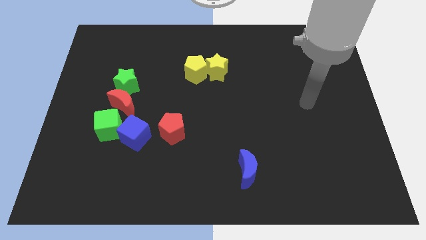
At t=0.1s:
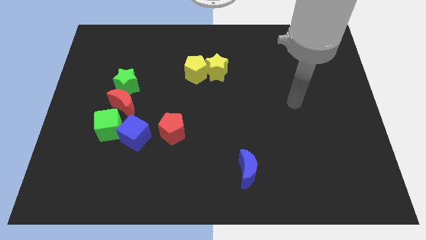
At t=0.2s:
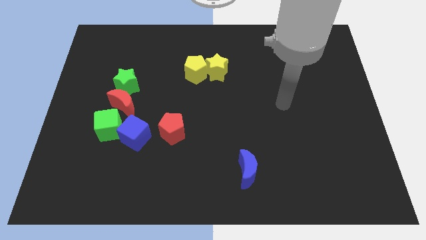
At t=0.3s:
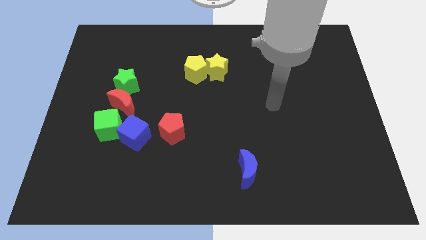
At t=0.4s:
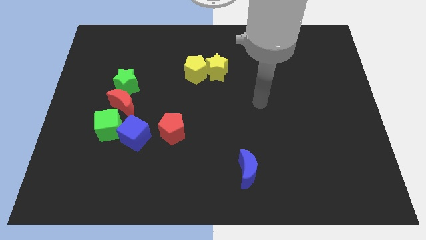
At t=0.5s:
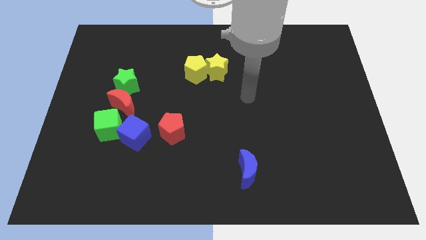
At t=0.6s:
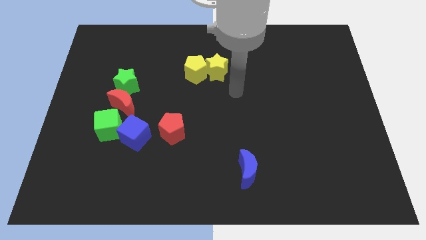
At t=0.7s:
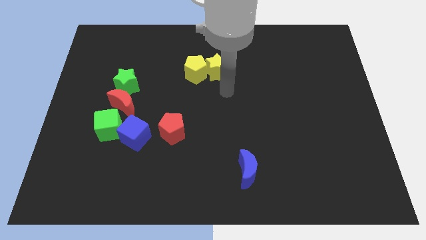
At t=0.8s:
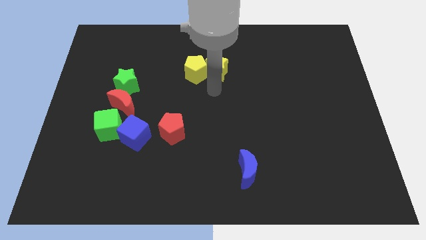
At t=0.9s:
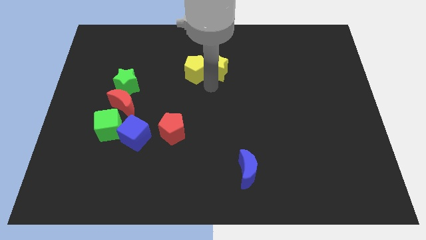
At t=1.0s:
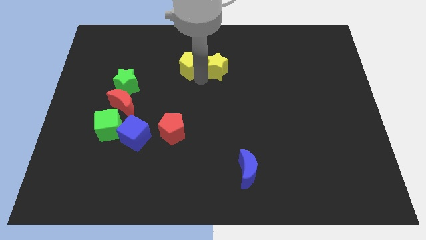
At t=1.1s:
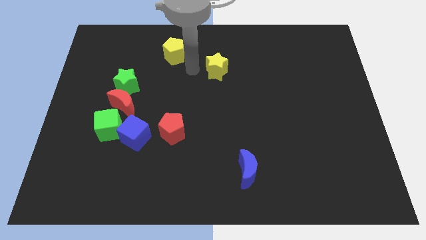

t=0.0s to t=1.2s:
move the yellow star away from the yellow pentagon

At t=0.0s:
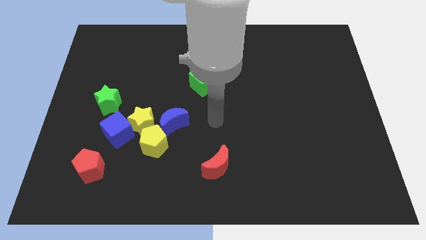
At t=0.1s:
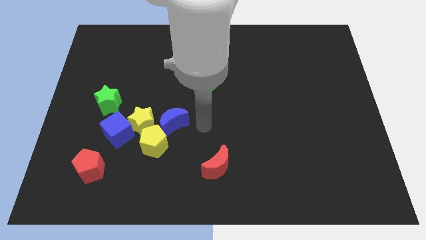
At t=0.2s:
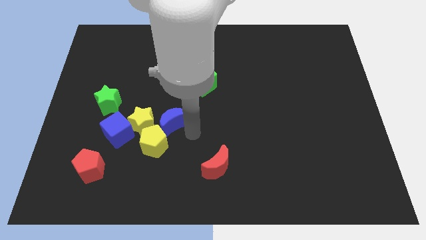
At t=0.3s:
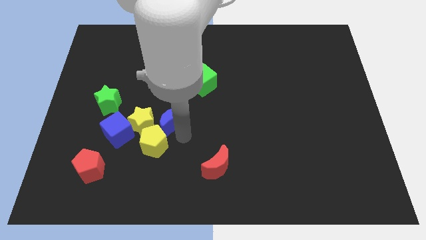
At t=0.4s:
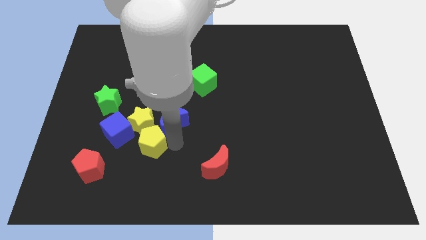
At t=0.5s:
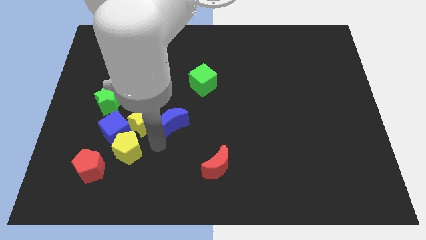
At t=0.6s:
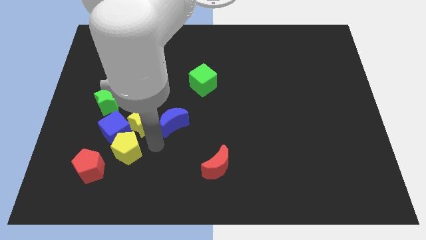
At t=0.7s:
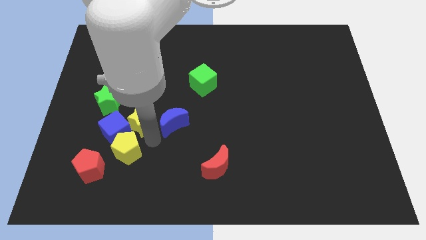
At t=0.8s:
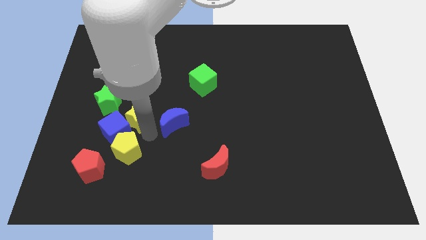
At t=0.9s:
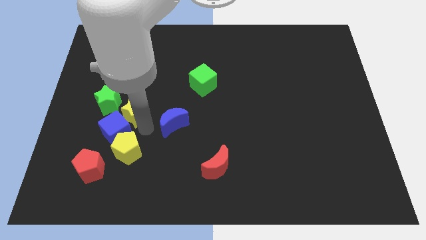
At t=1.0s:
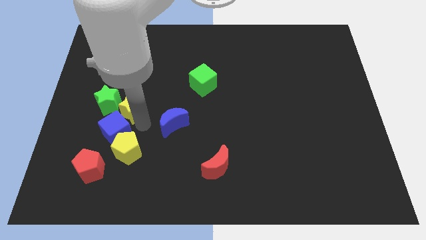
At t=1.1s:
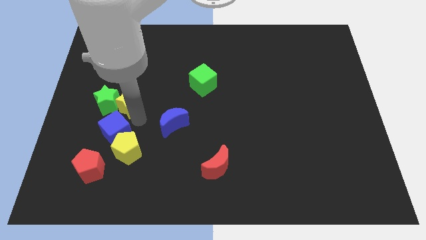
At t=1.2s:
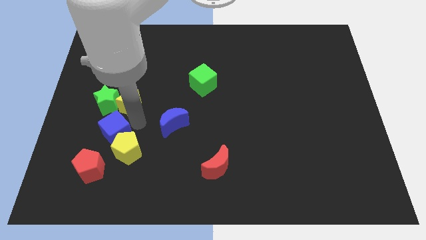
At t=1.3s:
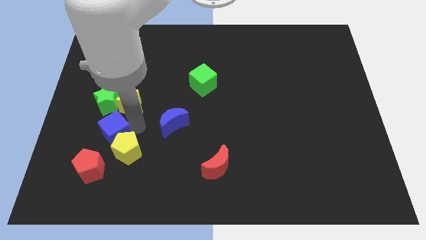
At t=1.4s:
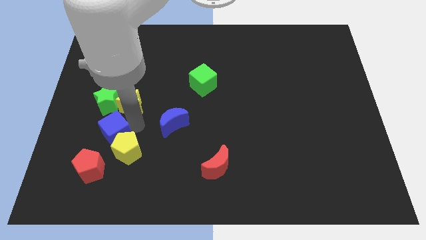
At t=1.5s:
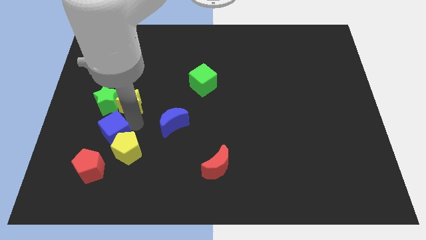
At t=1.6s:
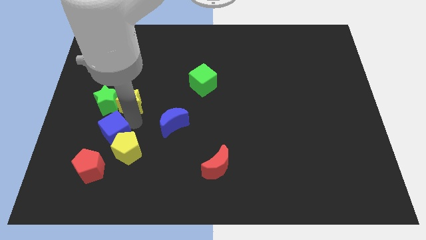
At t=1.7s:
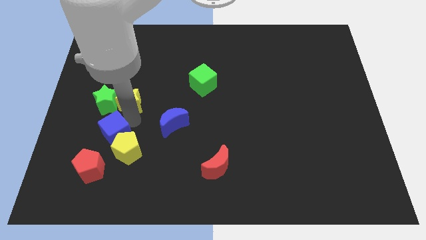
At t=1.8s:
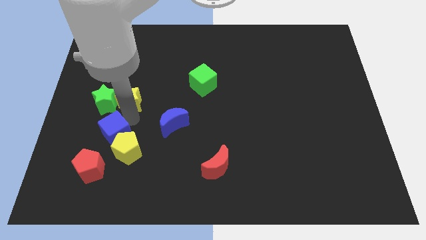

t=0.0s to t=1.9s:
pull the yellow star apart from the blue cube, yellow pentagon, and blue moon

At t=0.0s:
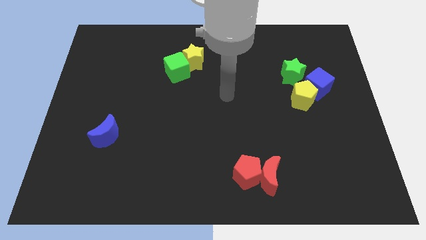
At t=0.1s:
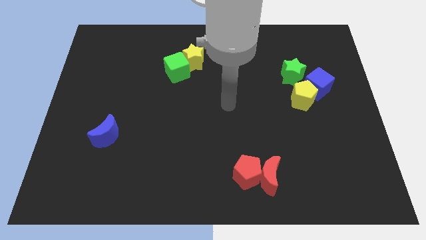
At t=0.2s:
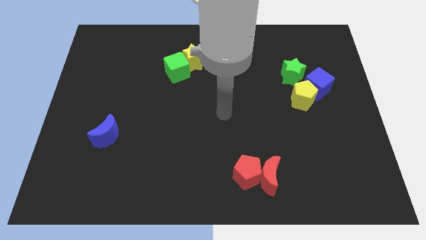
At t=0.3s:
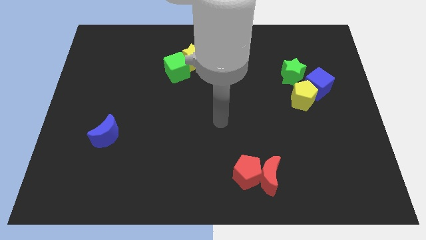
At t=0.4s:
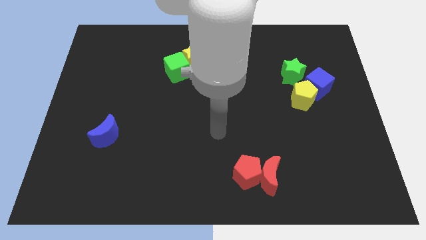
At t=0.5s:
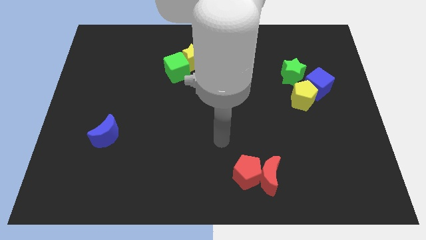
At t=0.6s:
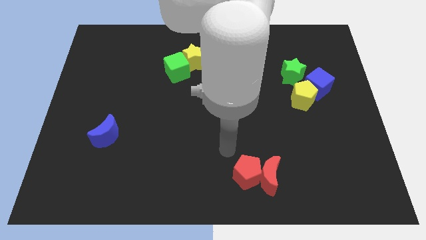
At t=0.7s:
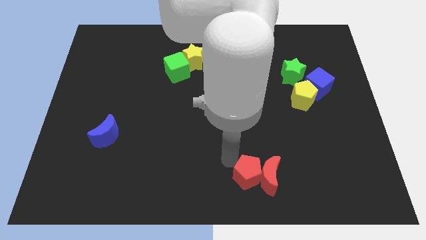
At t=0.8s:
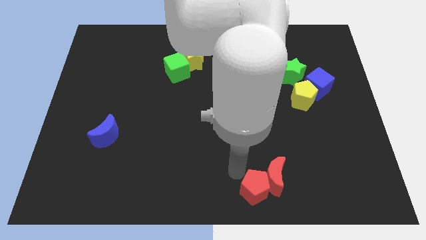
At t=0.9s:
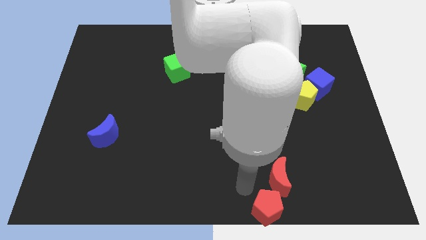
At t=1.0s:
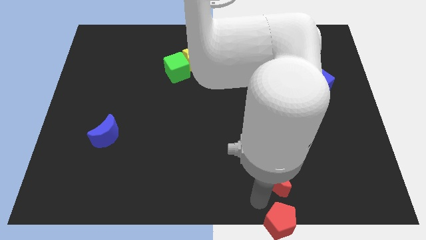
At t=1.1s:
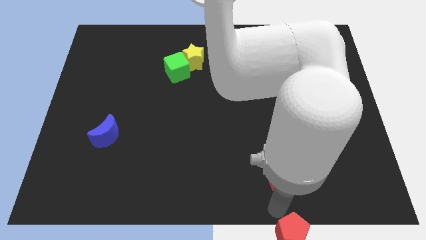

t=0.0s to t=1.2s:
separate the red moon from the red pentagon

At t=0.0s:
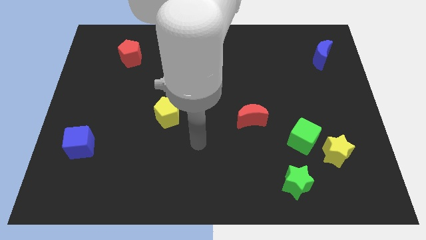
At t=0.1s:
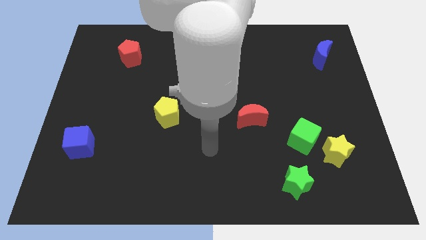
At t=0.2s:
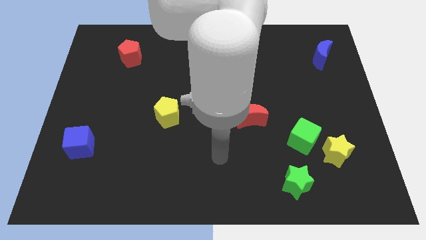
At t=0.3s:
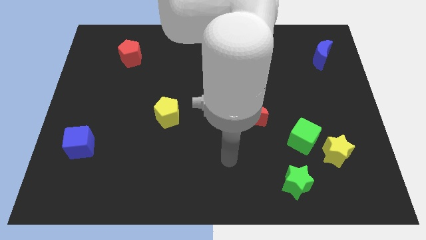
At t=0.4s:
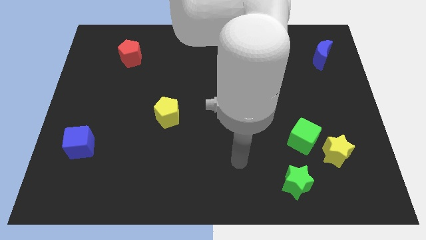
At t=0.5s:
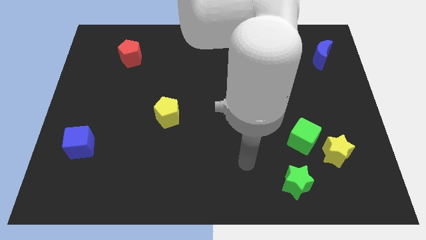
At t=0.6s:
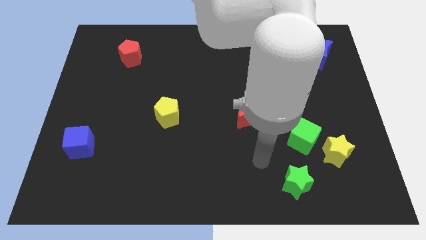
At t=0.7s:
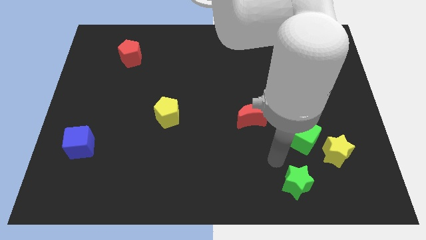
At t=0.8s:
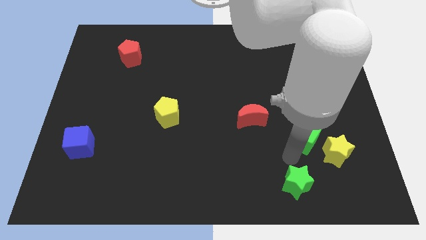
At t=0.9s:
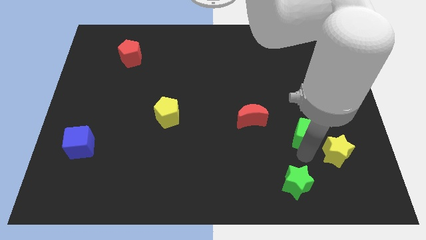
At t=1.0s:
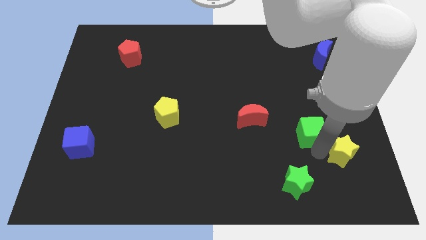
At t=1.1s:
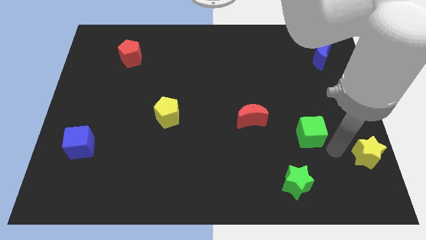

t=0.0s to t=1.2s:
pull the green cube apart from the yellow star

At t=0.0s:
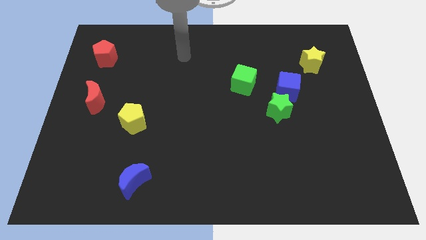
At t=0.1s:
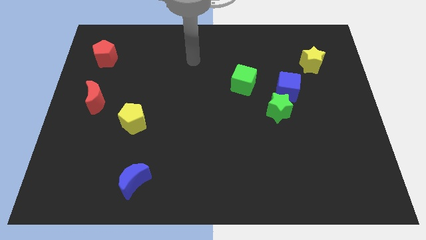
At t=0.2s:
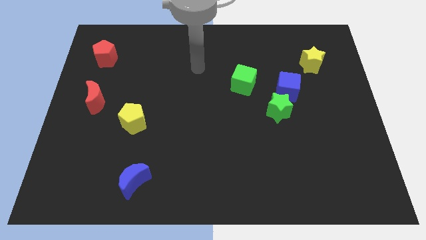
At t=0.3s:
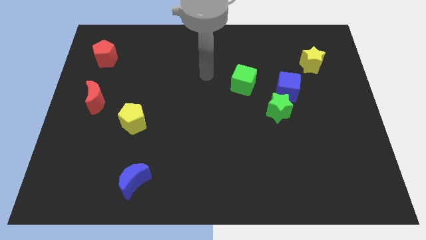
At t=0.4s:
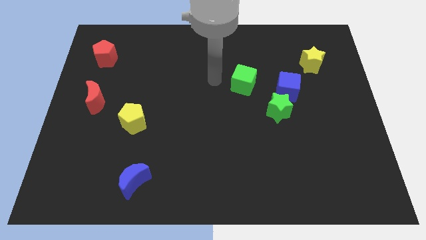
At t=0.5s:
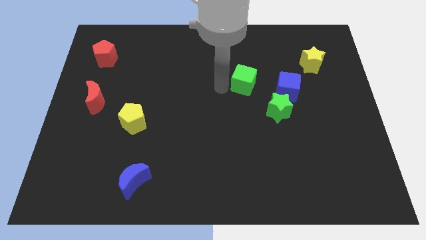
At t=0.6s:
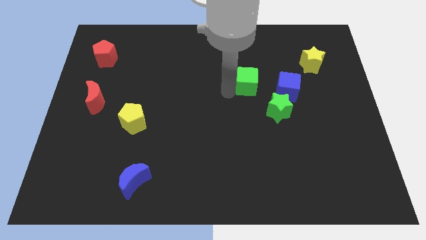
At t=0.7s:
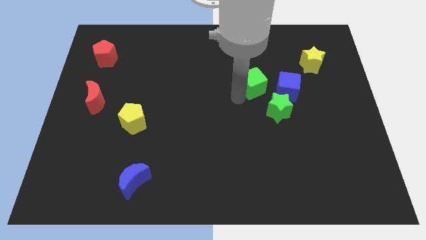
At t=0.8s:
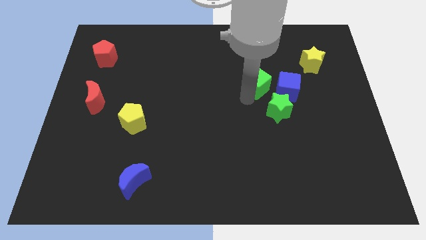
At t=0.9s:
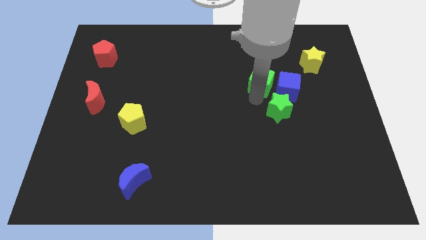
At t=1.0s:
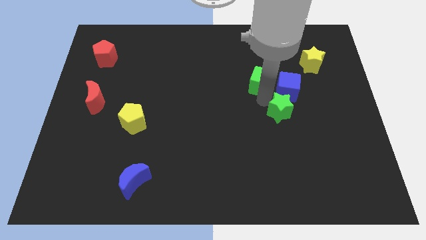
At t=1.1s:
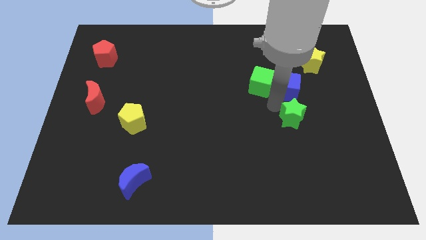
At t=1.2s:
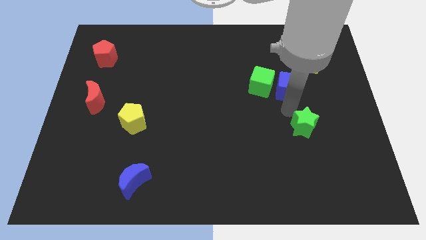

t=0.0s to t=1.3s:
separate the blue cube from the green star

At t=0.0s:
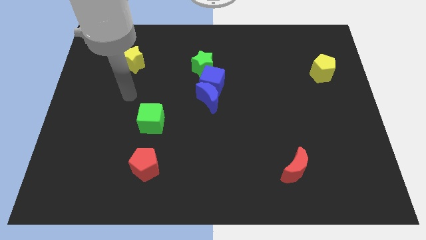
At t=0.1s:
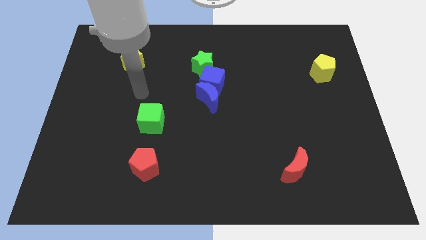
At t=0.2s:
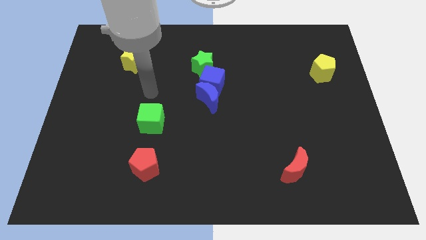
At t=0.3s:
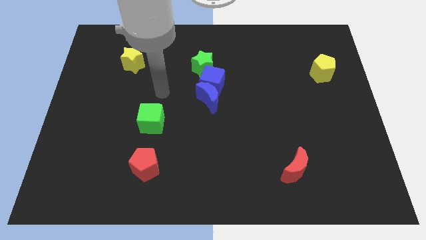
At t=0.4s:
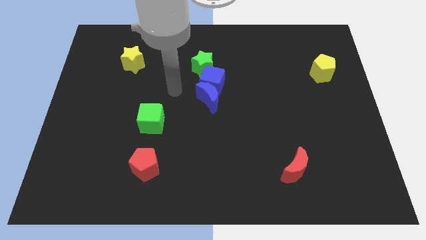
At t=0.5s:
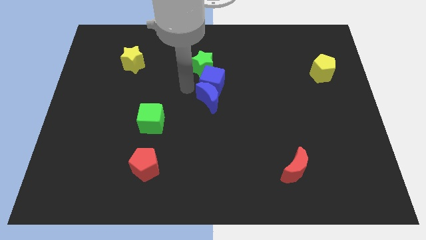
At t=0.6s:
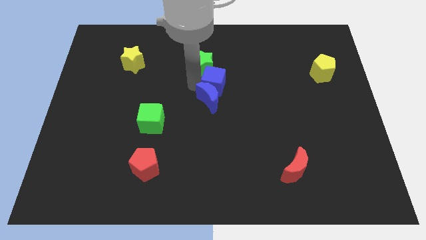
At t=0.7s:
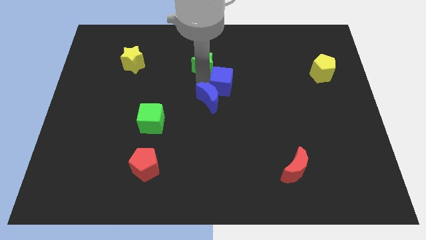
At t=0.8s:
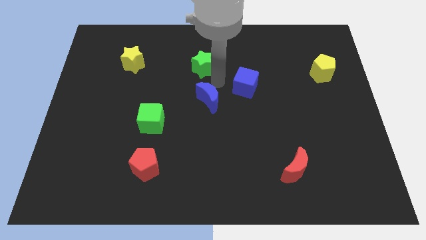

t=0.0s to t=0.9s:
pull the blue moon apart from the blue cube

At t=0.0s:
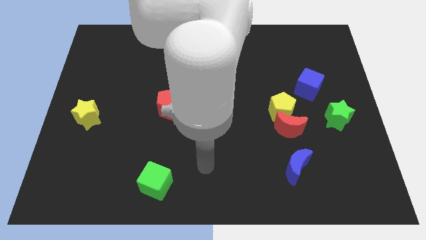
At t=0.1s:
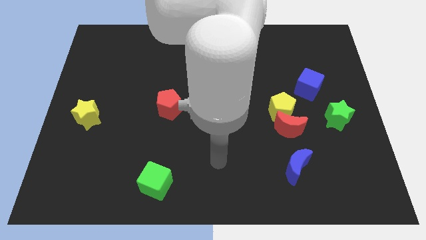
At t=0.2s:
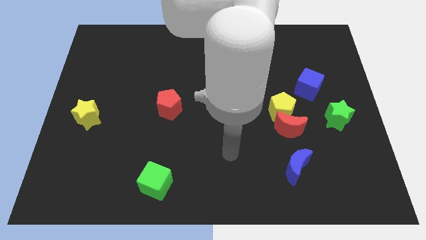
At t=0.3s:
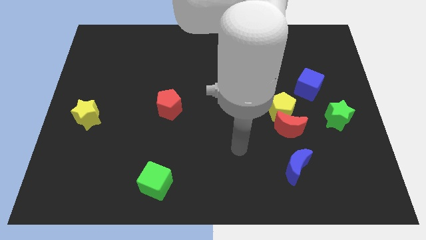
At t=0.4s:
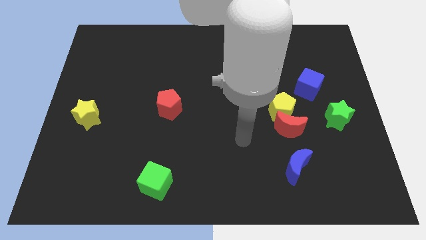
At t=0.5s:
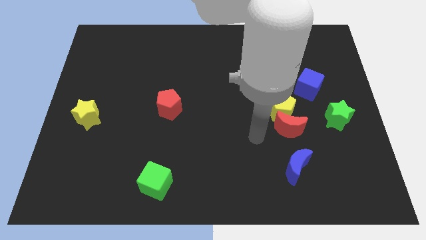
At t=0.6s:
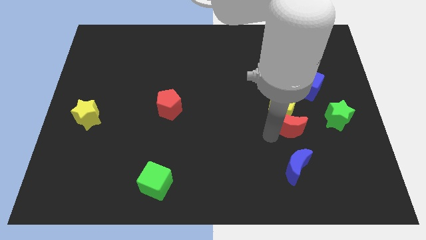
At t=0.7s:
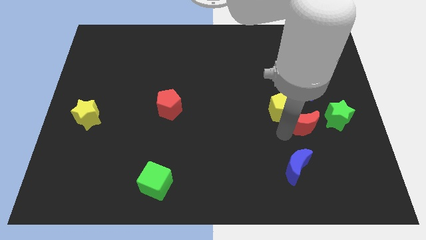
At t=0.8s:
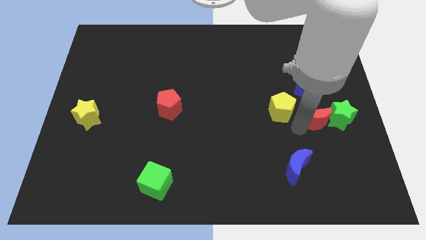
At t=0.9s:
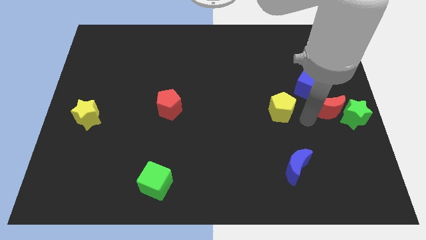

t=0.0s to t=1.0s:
move the yellow pentagon away from the red moon

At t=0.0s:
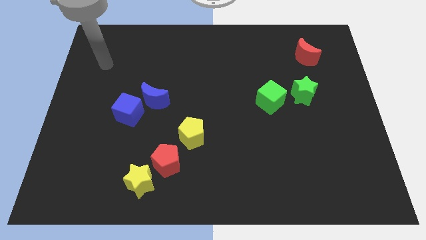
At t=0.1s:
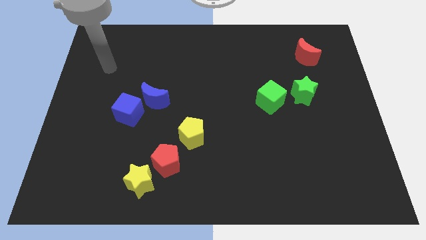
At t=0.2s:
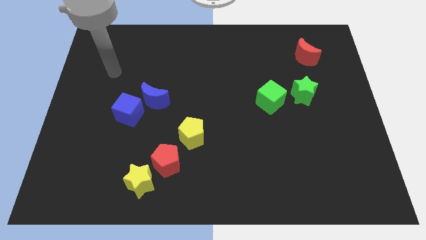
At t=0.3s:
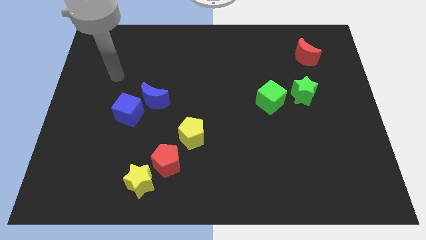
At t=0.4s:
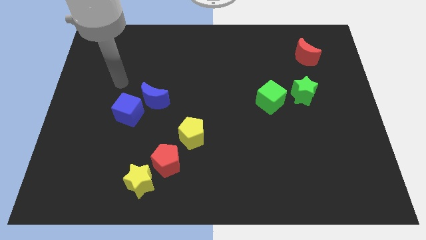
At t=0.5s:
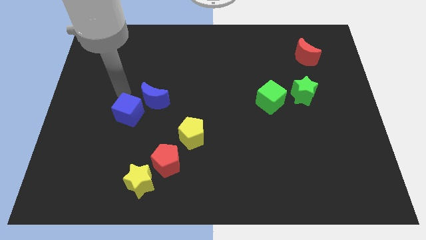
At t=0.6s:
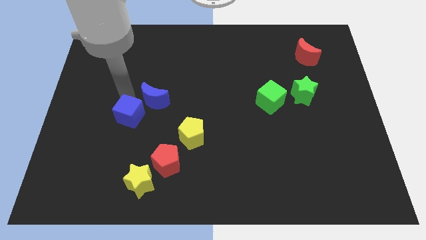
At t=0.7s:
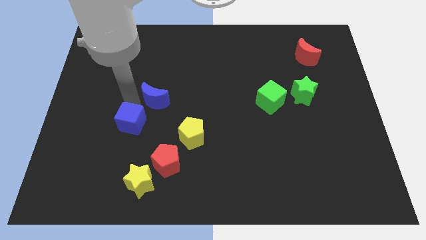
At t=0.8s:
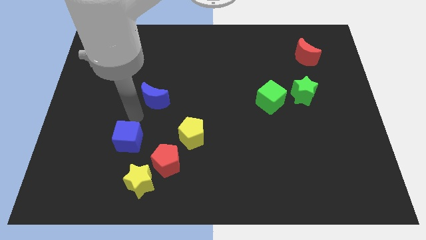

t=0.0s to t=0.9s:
move the blue moon away from the blue cube
